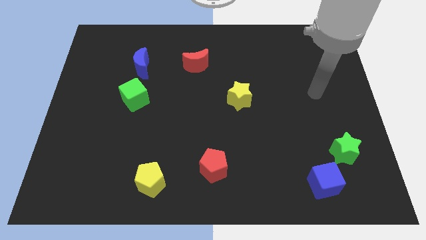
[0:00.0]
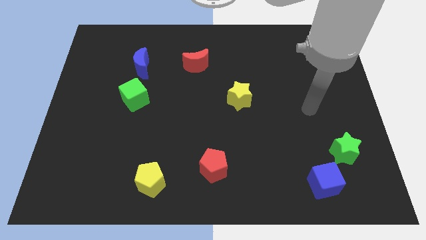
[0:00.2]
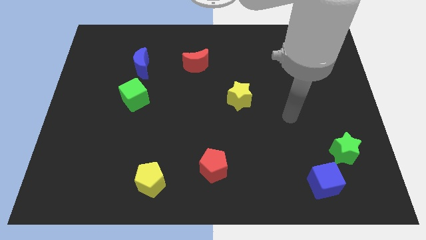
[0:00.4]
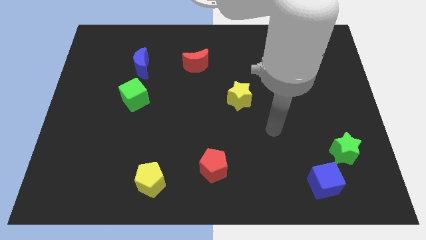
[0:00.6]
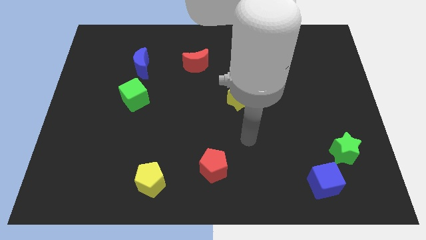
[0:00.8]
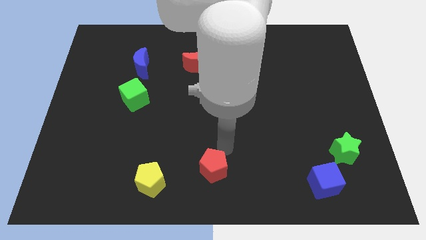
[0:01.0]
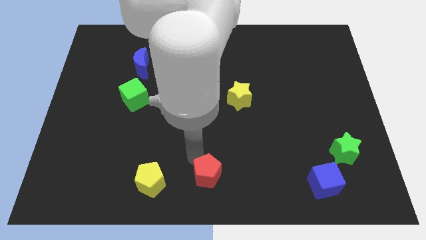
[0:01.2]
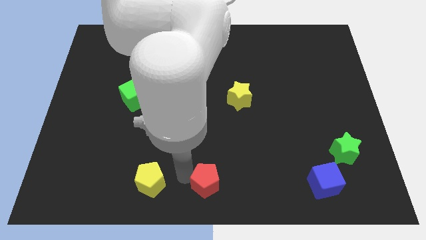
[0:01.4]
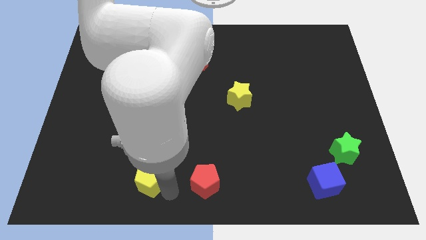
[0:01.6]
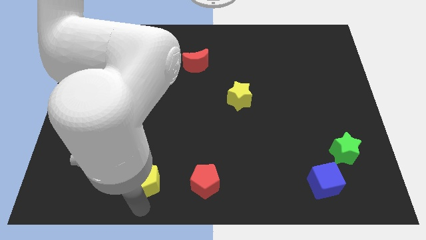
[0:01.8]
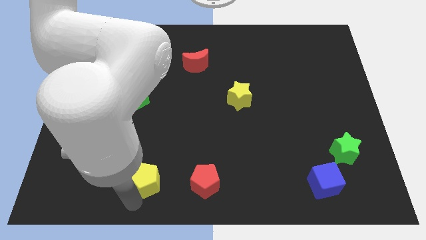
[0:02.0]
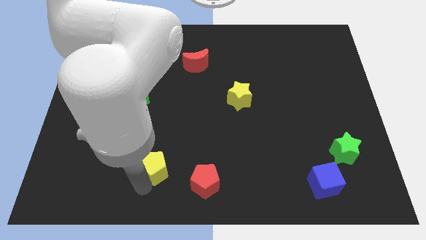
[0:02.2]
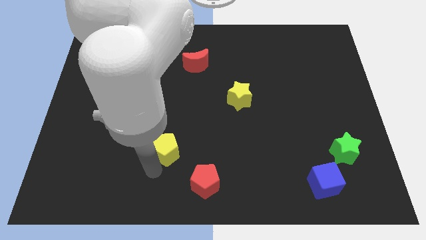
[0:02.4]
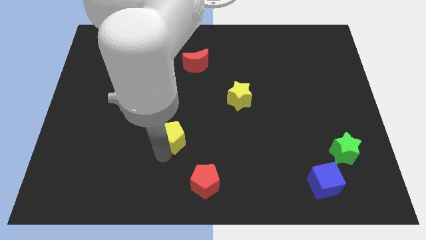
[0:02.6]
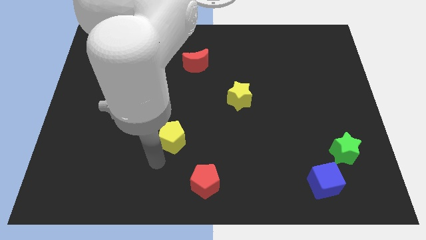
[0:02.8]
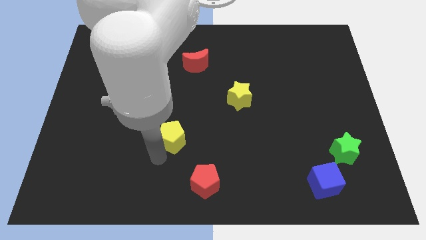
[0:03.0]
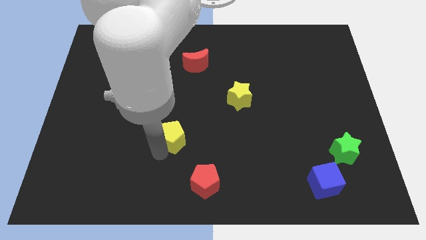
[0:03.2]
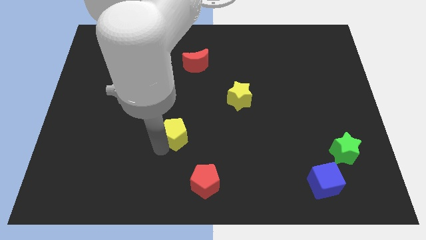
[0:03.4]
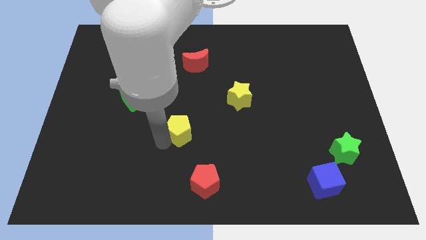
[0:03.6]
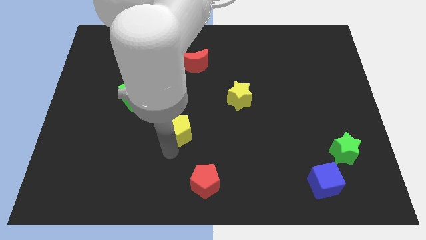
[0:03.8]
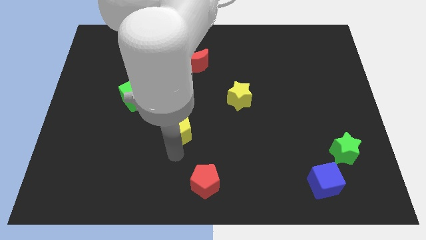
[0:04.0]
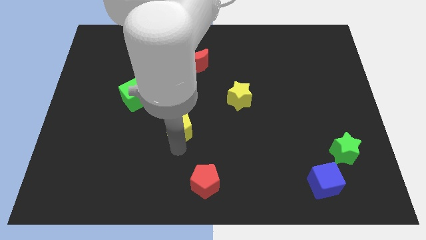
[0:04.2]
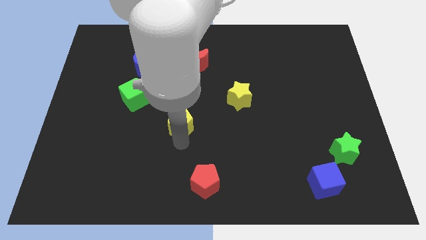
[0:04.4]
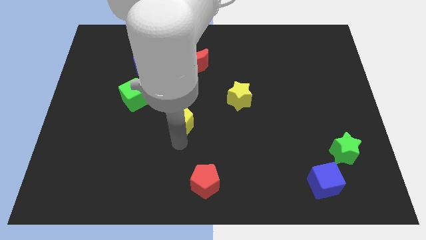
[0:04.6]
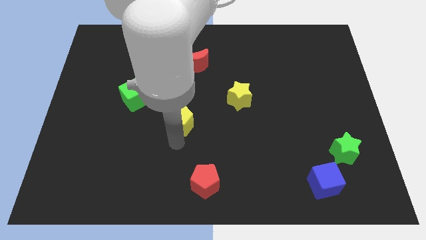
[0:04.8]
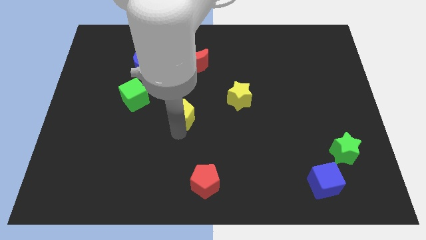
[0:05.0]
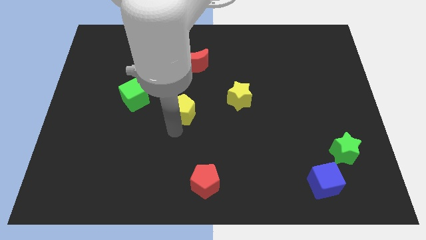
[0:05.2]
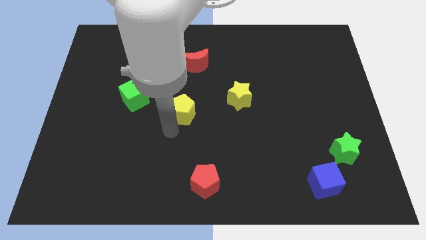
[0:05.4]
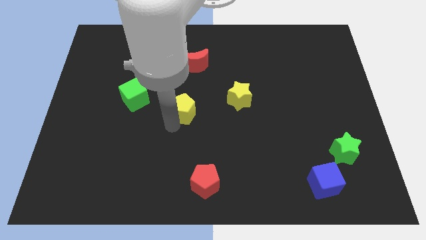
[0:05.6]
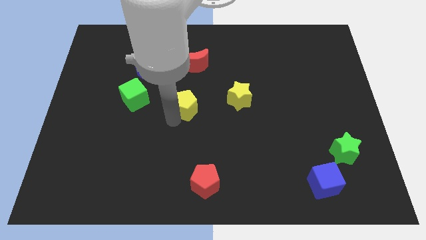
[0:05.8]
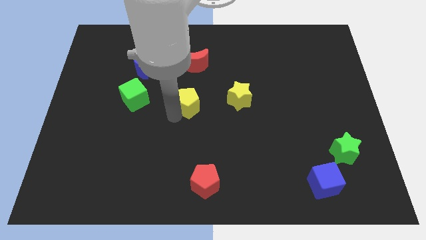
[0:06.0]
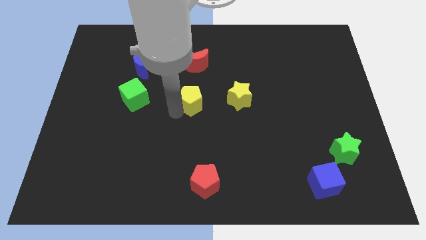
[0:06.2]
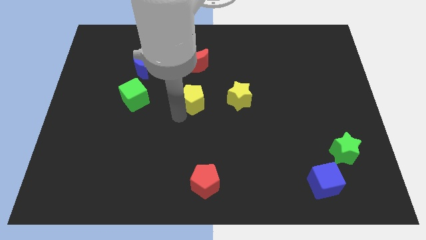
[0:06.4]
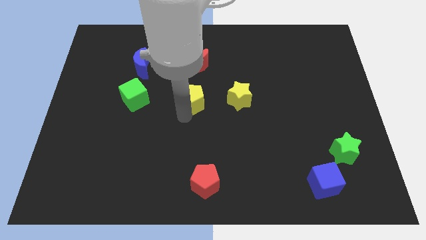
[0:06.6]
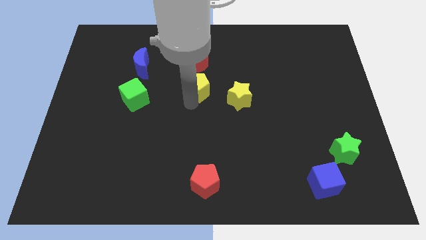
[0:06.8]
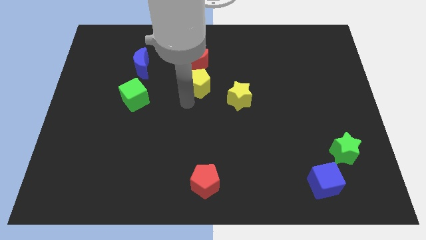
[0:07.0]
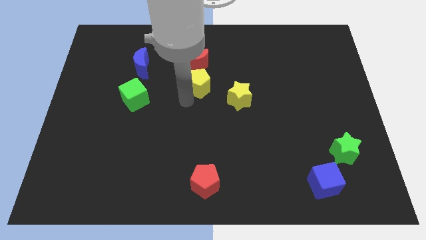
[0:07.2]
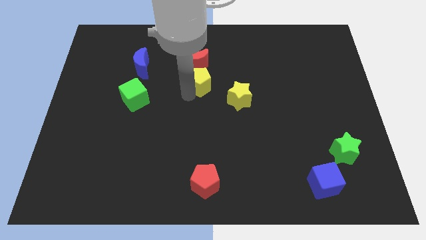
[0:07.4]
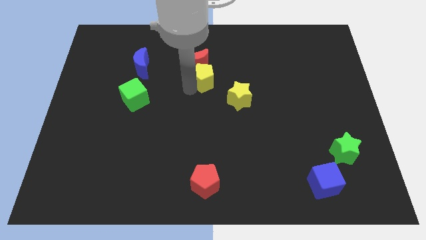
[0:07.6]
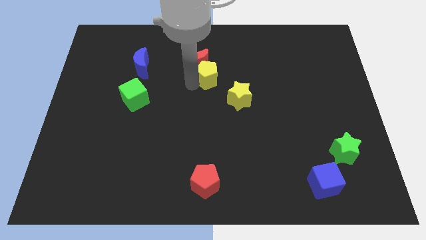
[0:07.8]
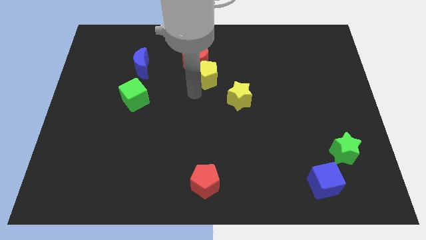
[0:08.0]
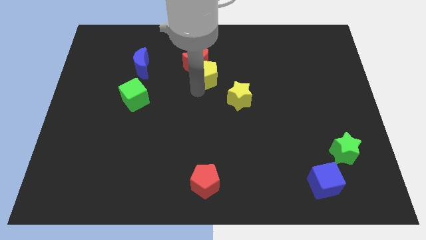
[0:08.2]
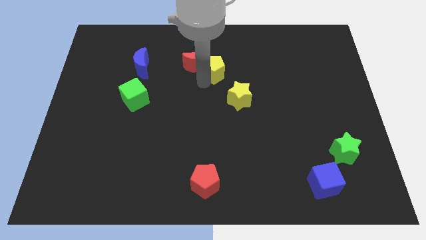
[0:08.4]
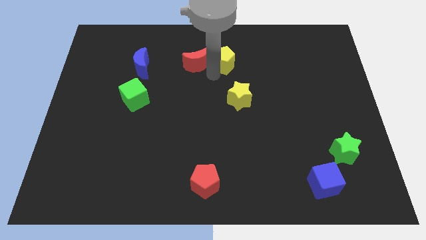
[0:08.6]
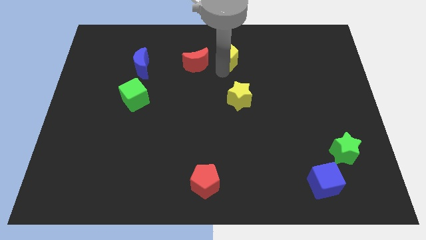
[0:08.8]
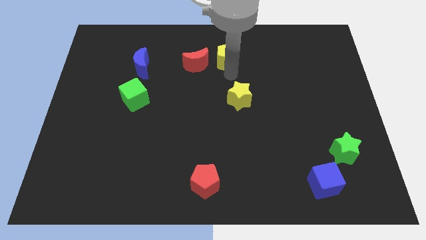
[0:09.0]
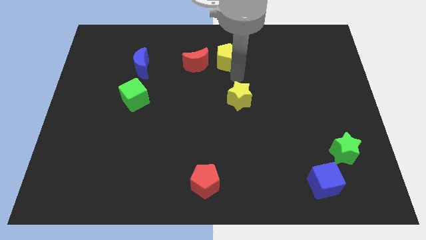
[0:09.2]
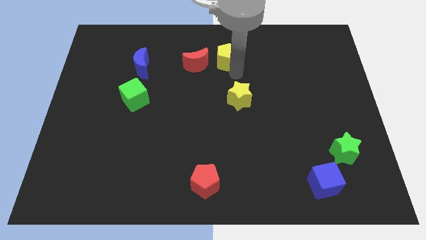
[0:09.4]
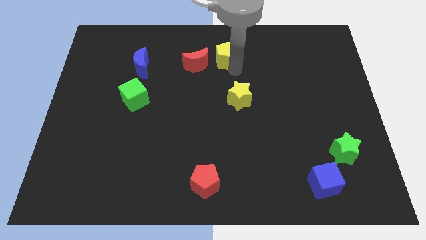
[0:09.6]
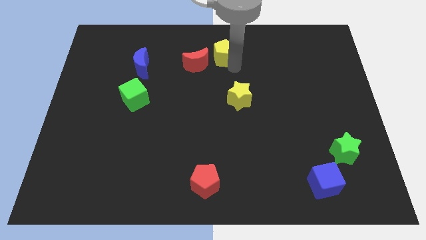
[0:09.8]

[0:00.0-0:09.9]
move the yellow pentagon to the top

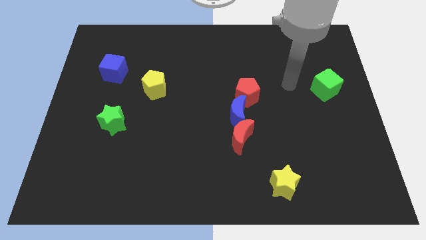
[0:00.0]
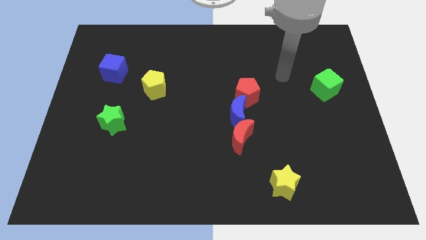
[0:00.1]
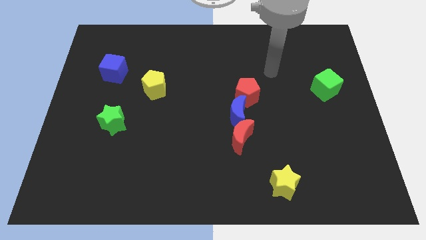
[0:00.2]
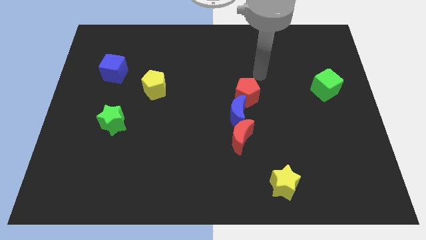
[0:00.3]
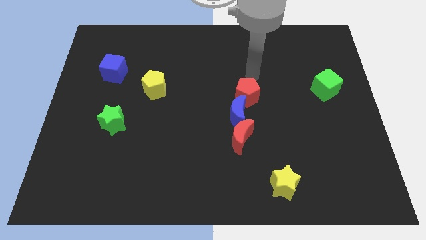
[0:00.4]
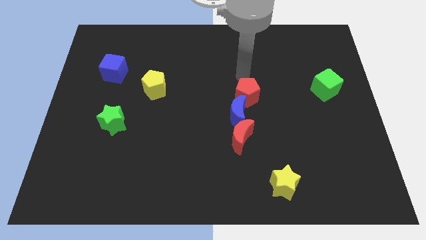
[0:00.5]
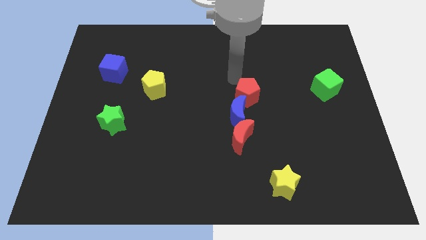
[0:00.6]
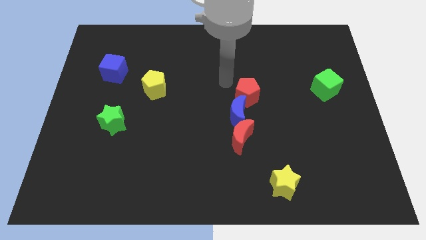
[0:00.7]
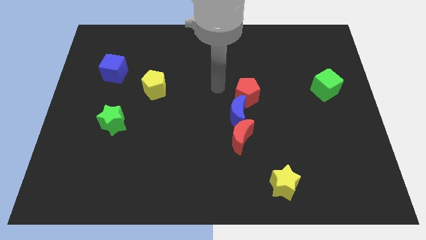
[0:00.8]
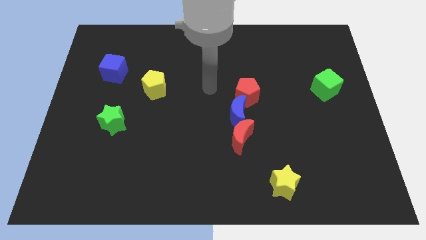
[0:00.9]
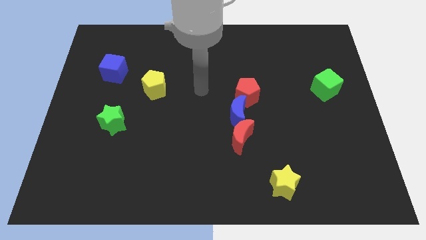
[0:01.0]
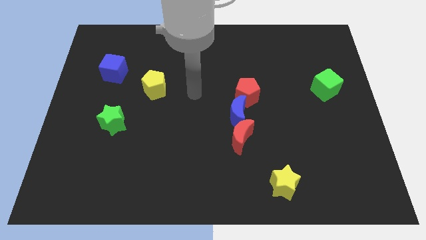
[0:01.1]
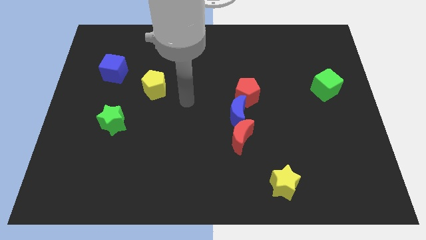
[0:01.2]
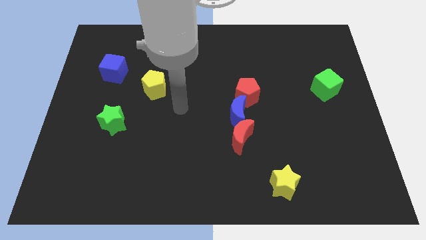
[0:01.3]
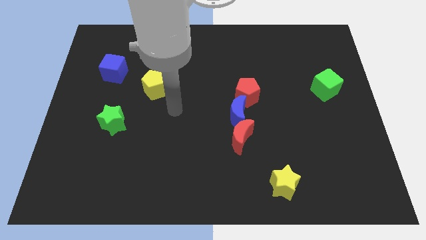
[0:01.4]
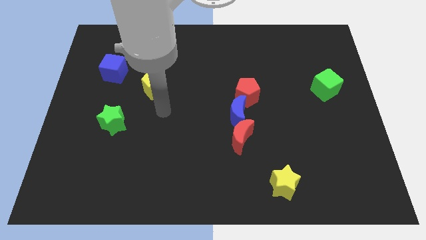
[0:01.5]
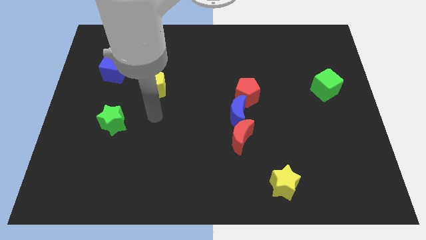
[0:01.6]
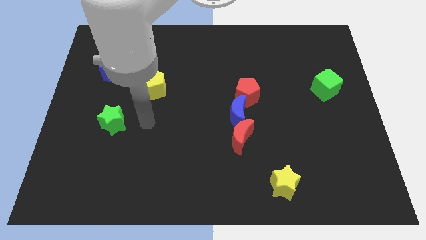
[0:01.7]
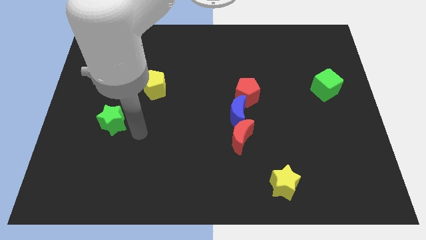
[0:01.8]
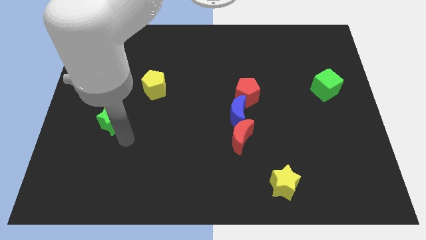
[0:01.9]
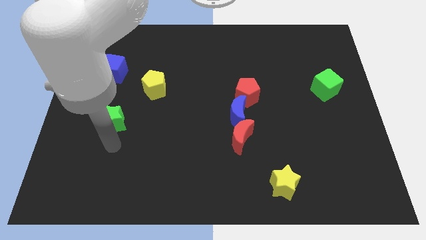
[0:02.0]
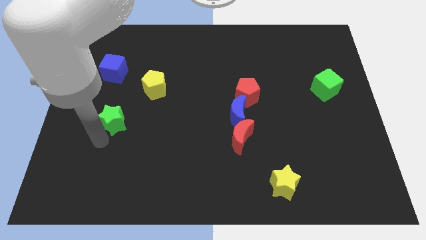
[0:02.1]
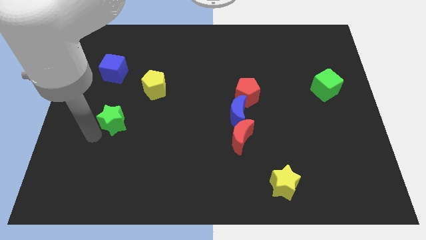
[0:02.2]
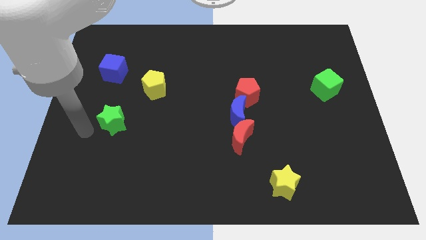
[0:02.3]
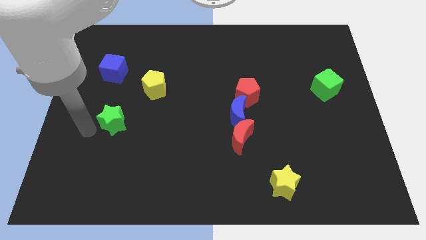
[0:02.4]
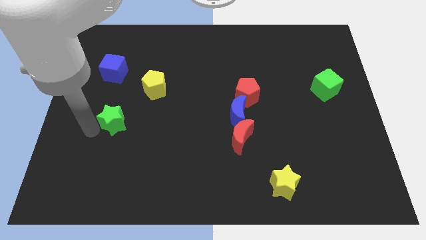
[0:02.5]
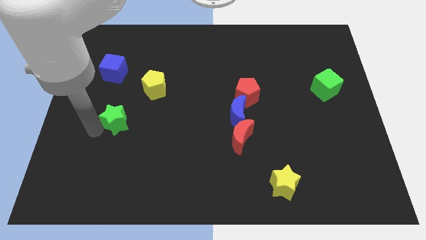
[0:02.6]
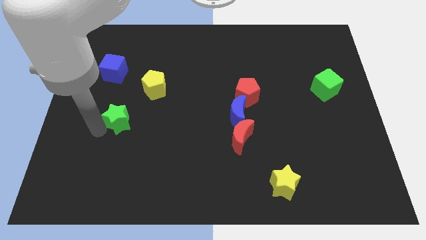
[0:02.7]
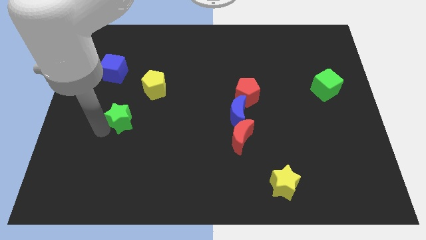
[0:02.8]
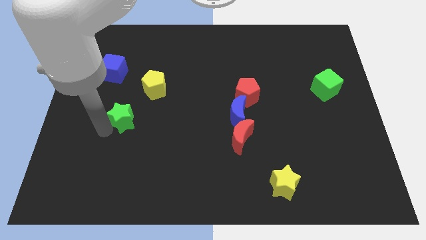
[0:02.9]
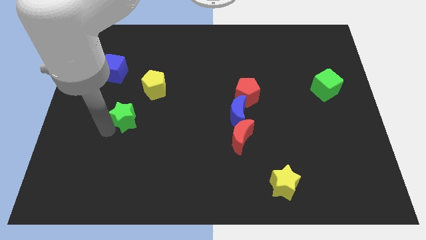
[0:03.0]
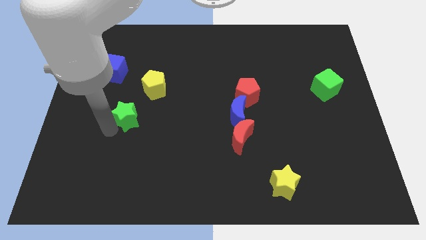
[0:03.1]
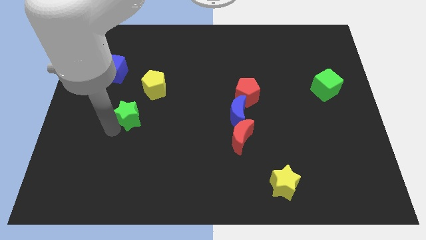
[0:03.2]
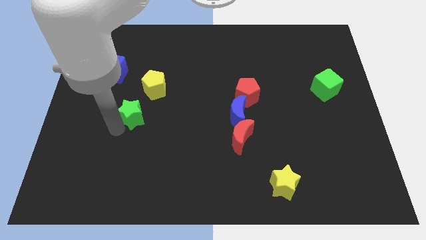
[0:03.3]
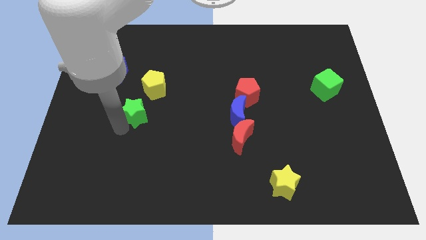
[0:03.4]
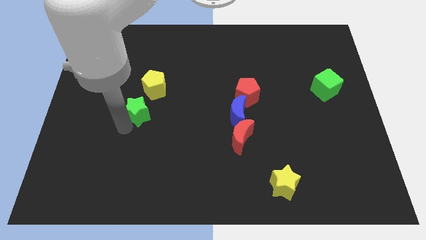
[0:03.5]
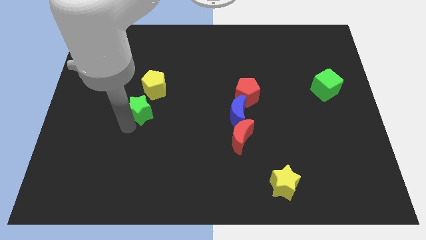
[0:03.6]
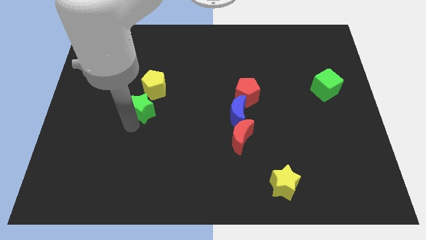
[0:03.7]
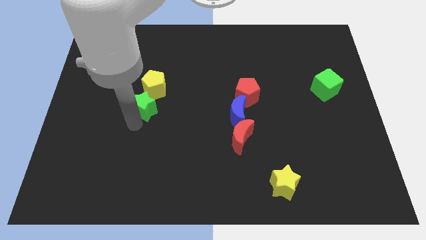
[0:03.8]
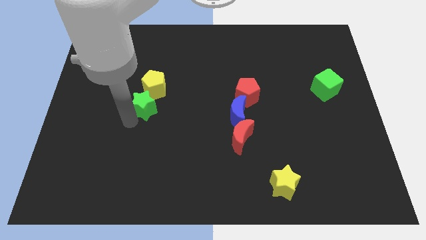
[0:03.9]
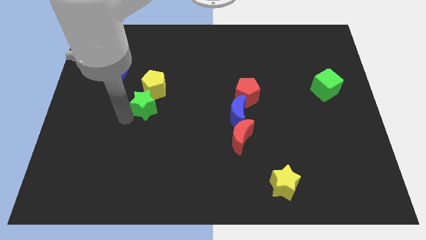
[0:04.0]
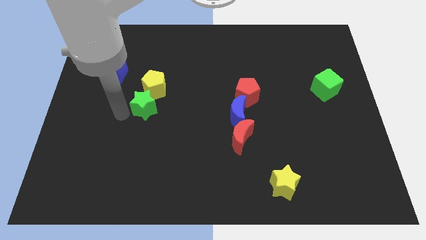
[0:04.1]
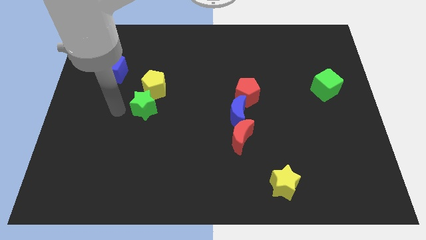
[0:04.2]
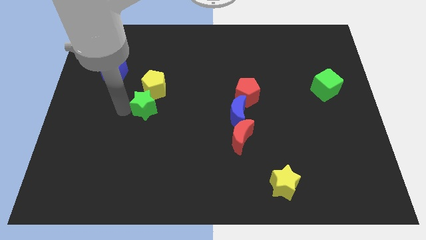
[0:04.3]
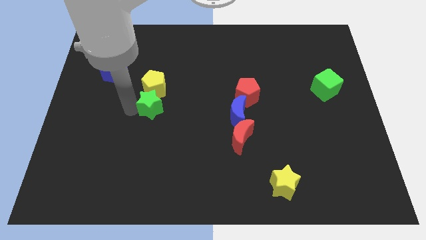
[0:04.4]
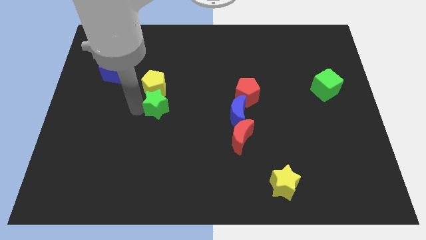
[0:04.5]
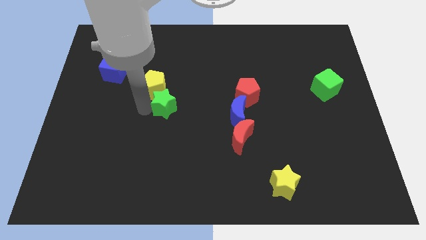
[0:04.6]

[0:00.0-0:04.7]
move the green star to the center
